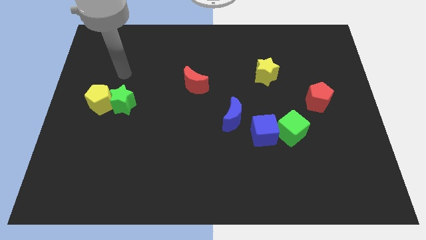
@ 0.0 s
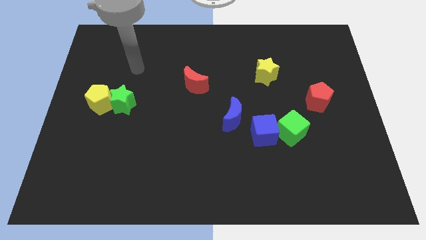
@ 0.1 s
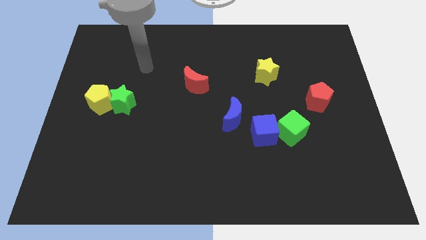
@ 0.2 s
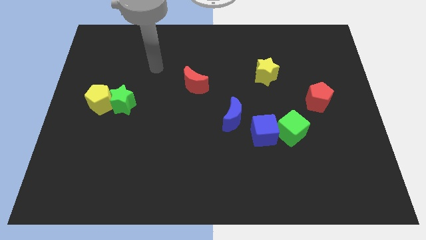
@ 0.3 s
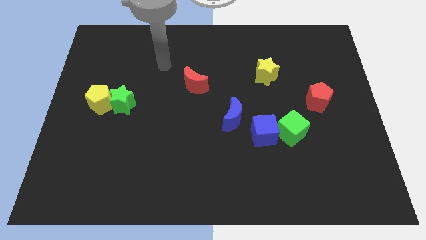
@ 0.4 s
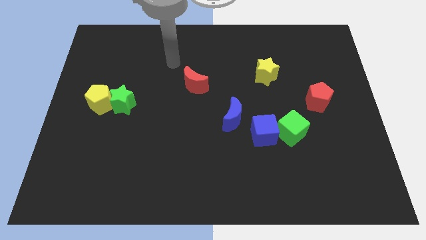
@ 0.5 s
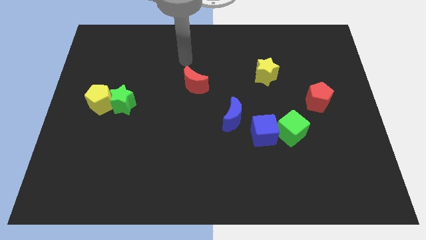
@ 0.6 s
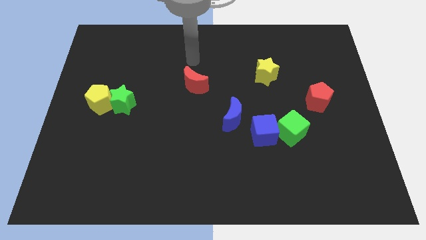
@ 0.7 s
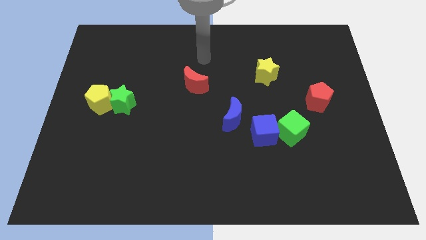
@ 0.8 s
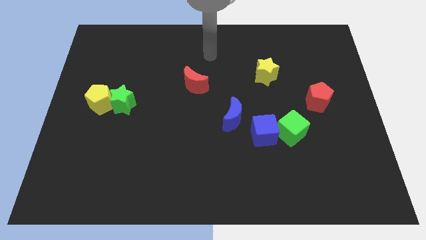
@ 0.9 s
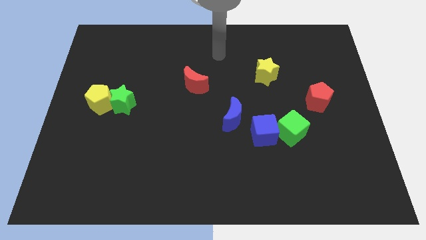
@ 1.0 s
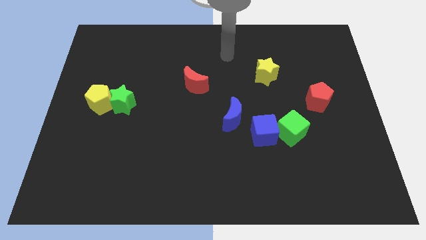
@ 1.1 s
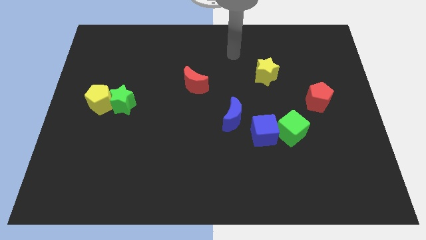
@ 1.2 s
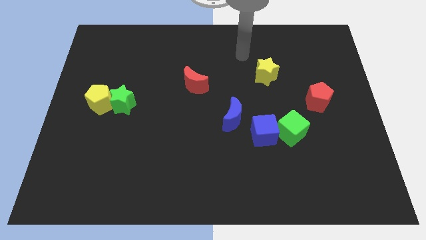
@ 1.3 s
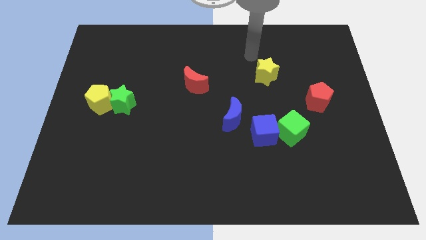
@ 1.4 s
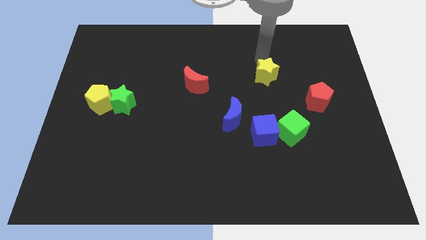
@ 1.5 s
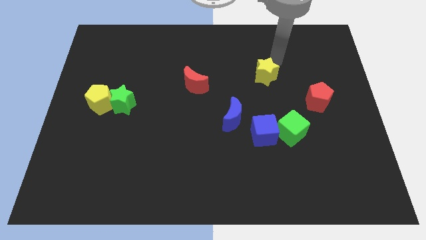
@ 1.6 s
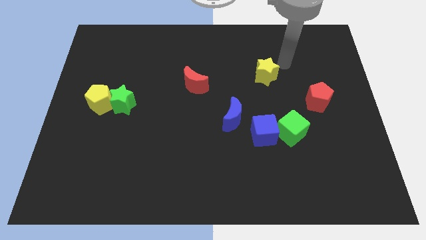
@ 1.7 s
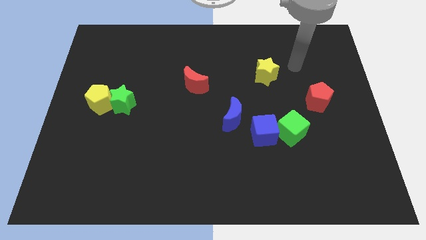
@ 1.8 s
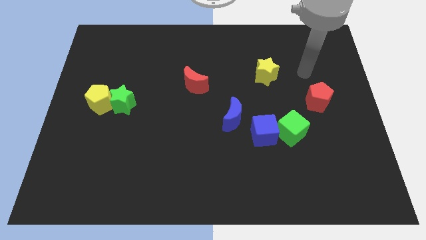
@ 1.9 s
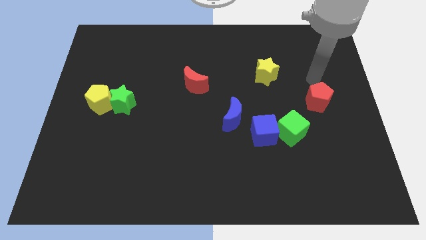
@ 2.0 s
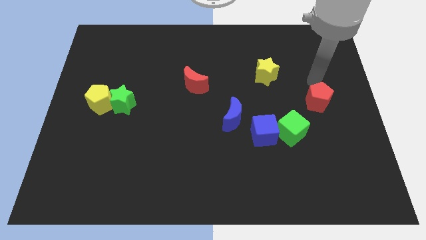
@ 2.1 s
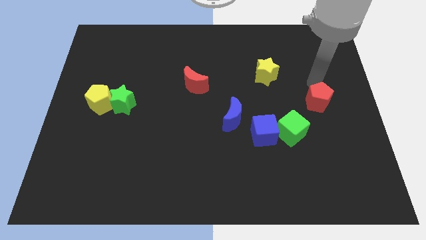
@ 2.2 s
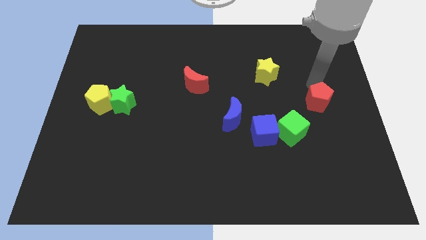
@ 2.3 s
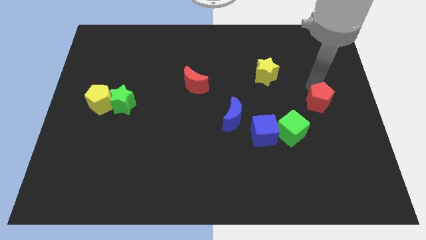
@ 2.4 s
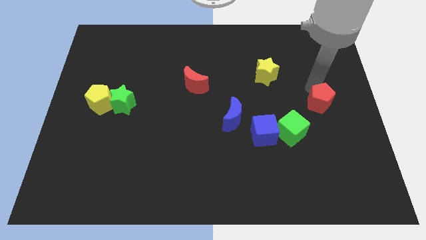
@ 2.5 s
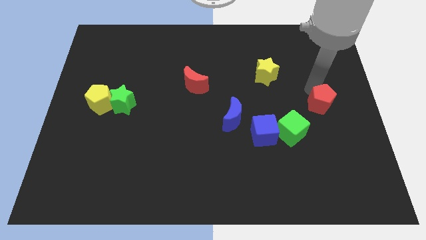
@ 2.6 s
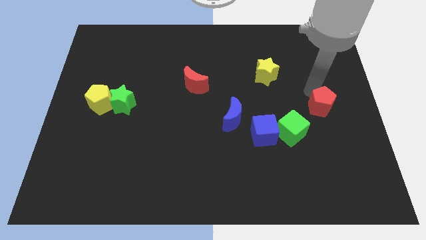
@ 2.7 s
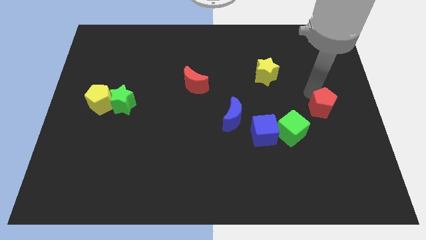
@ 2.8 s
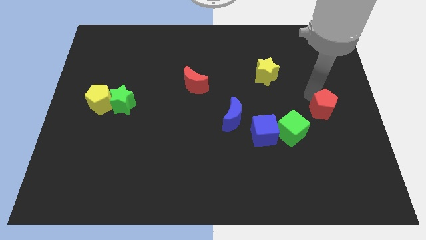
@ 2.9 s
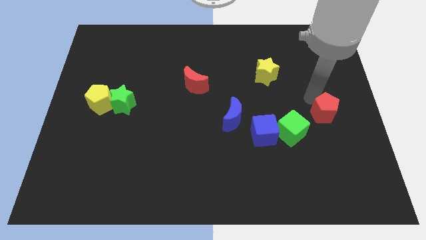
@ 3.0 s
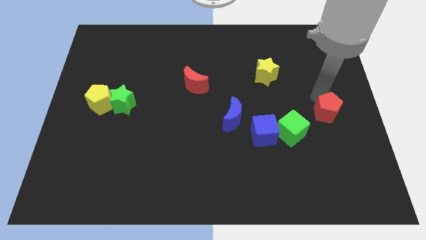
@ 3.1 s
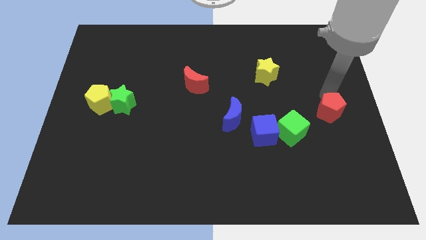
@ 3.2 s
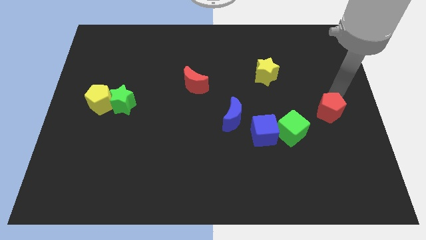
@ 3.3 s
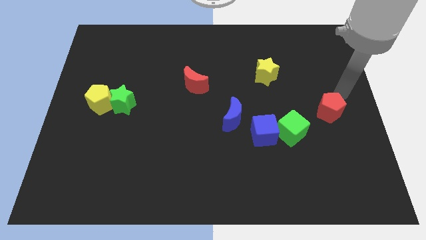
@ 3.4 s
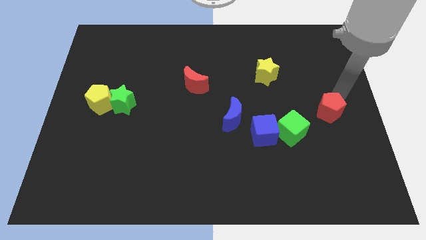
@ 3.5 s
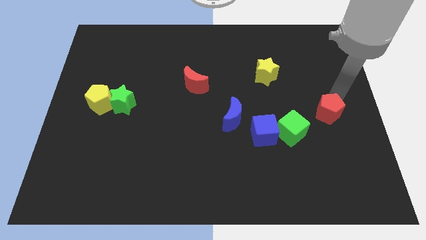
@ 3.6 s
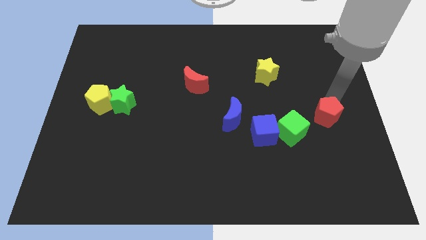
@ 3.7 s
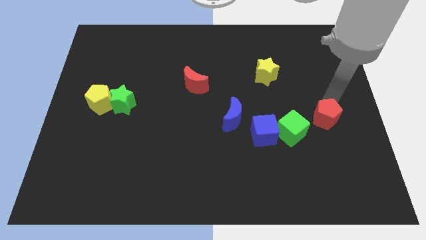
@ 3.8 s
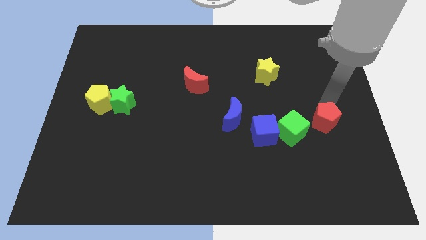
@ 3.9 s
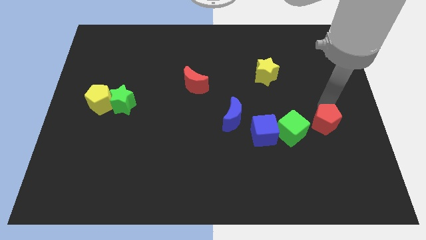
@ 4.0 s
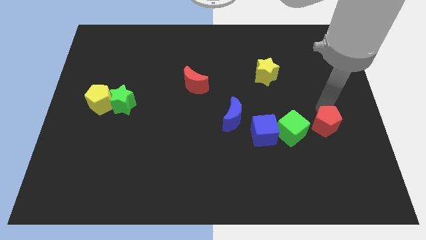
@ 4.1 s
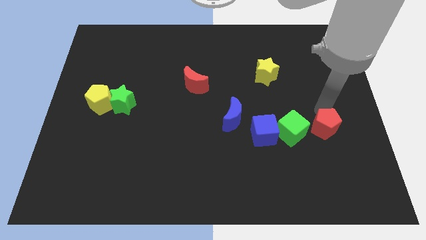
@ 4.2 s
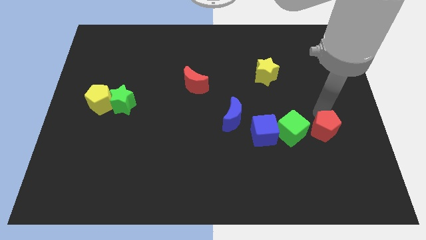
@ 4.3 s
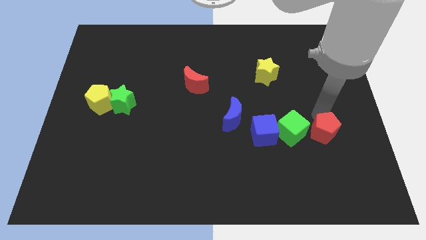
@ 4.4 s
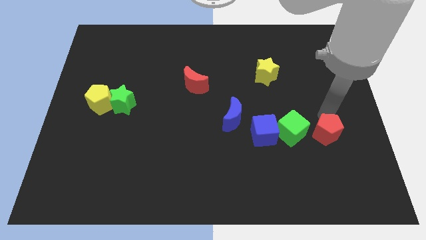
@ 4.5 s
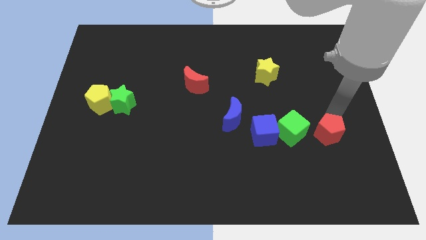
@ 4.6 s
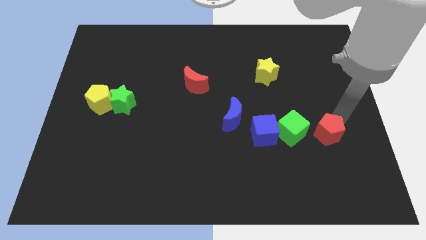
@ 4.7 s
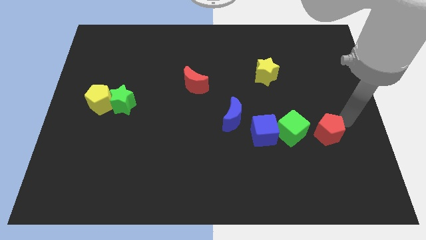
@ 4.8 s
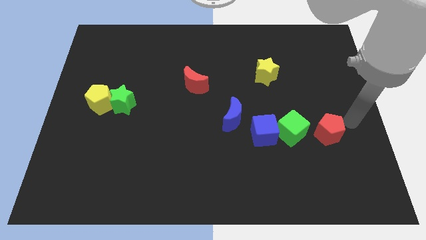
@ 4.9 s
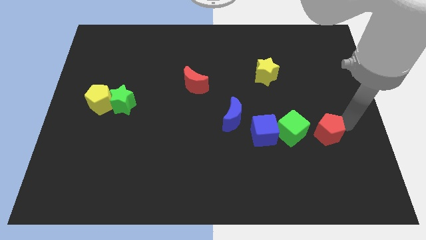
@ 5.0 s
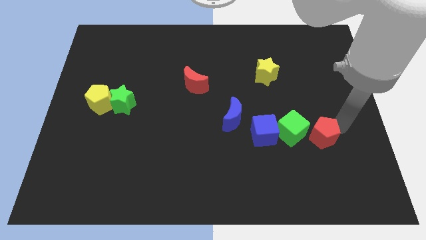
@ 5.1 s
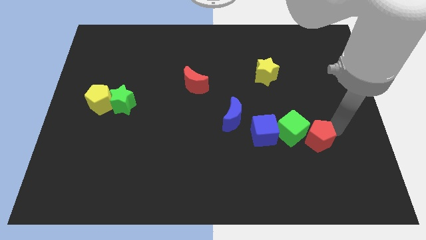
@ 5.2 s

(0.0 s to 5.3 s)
slightly slide the red pentagon down and left diagonally

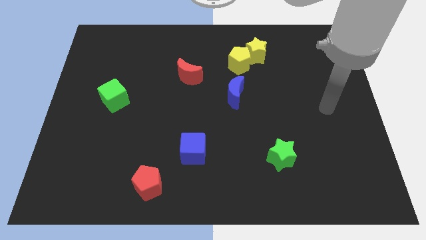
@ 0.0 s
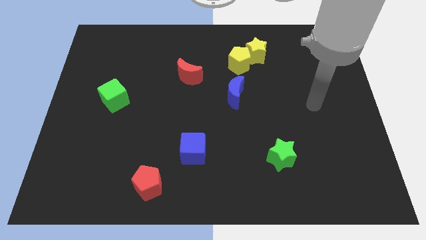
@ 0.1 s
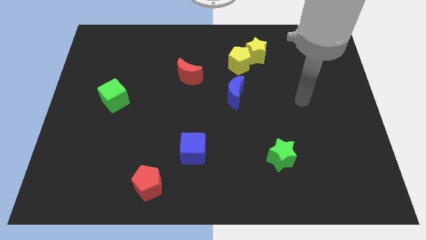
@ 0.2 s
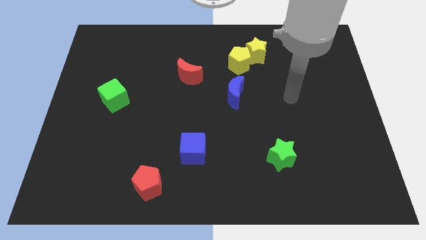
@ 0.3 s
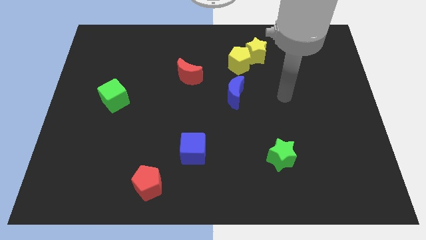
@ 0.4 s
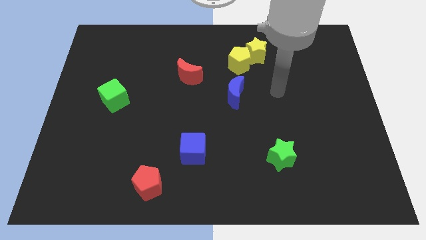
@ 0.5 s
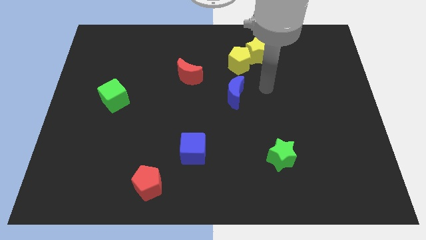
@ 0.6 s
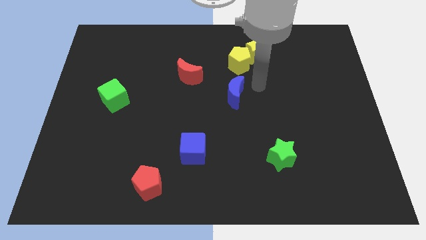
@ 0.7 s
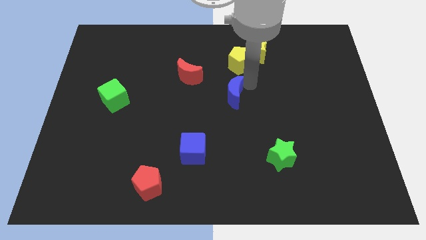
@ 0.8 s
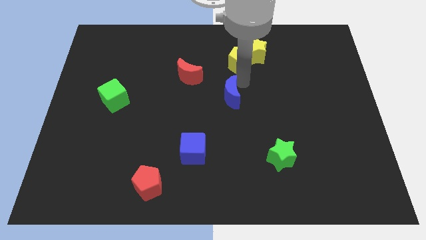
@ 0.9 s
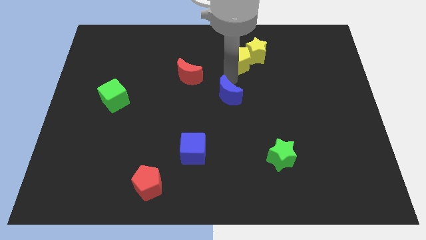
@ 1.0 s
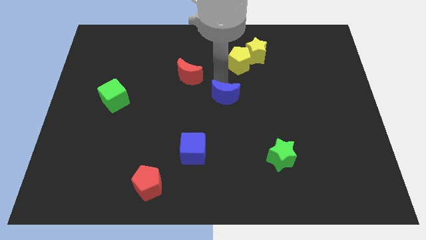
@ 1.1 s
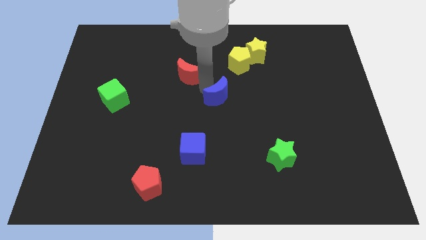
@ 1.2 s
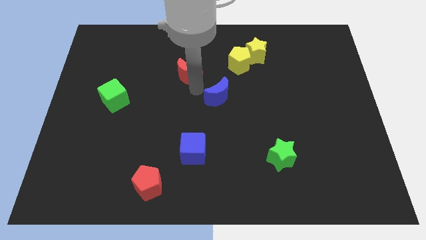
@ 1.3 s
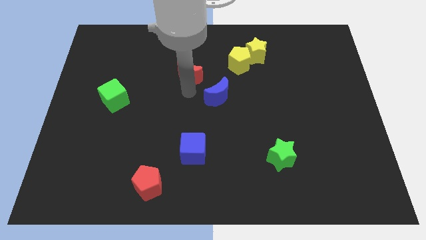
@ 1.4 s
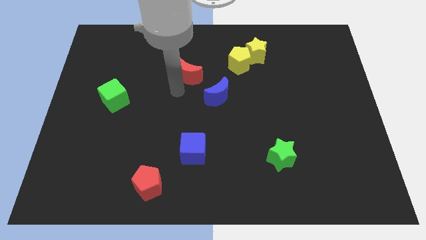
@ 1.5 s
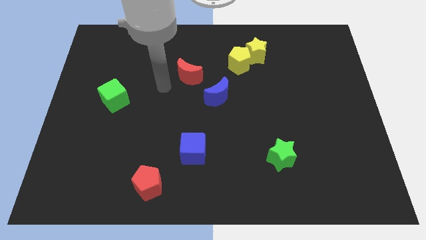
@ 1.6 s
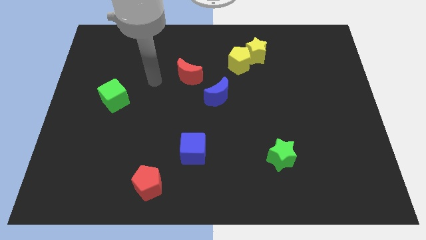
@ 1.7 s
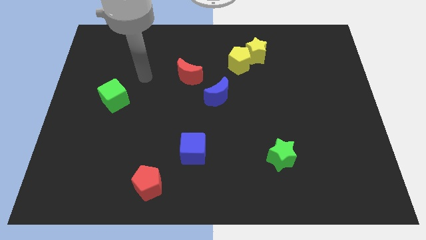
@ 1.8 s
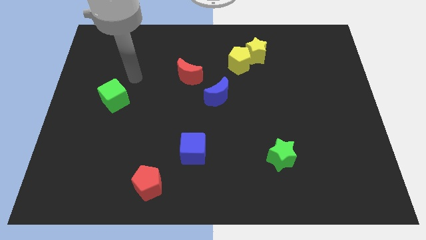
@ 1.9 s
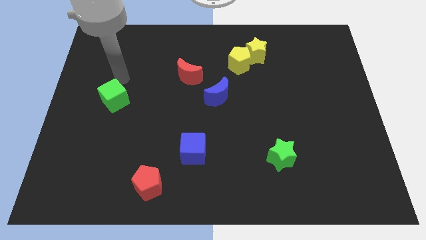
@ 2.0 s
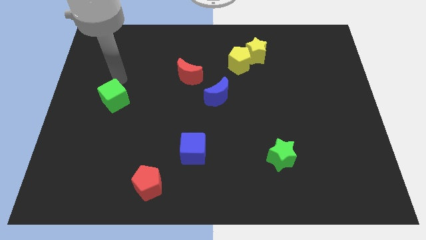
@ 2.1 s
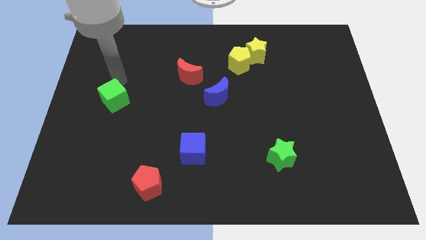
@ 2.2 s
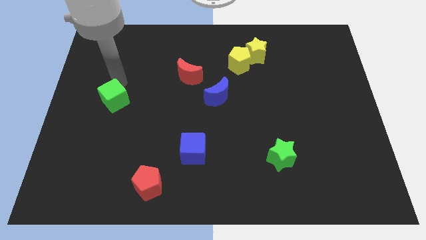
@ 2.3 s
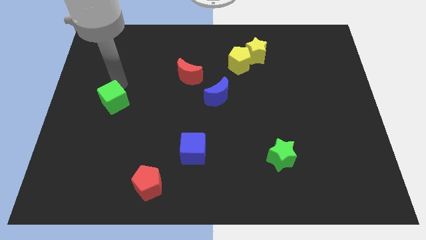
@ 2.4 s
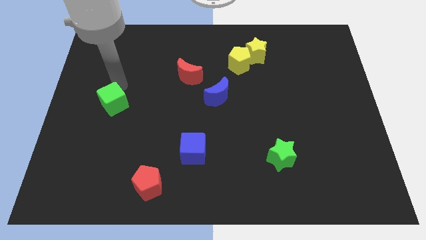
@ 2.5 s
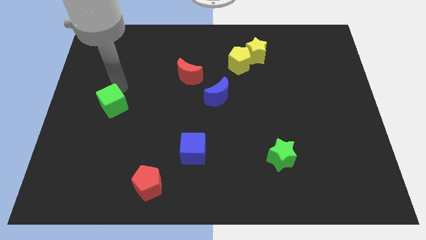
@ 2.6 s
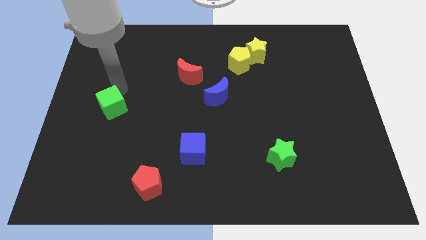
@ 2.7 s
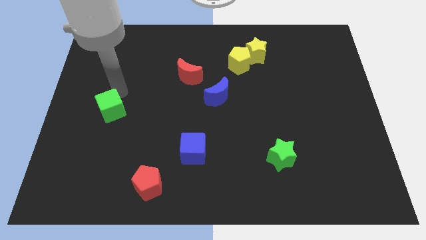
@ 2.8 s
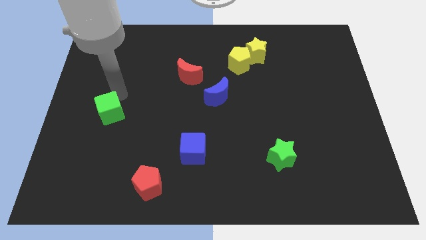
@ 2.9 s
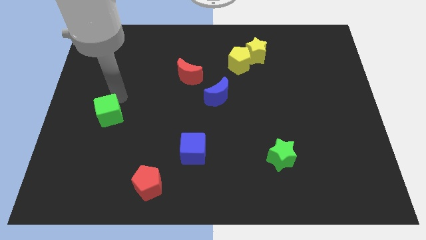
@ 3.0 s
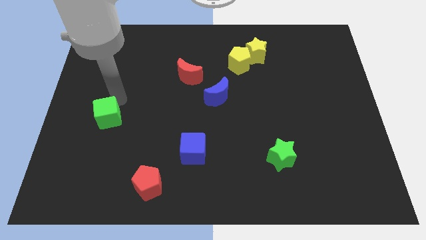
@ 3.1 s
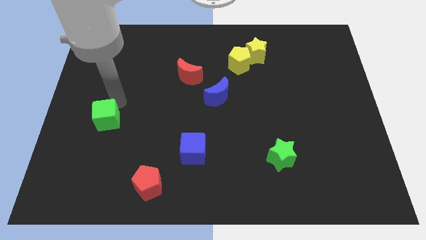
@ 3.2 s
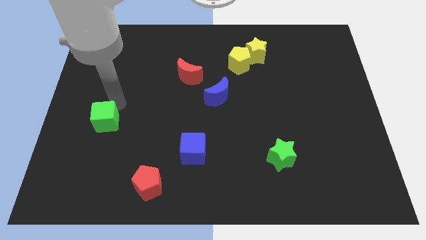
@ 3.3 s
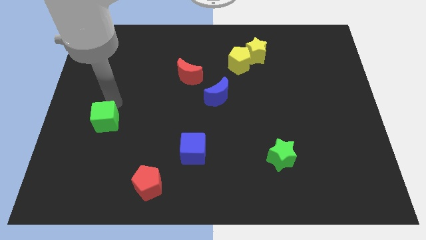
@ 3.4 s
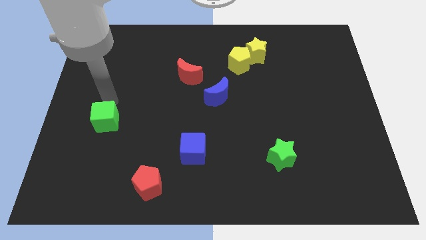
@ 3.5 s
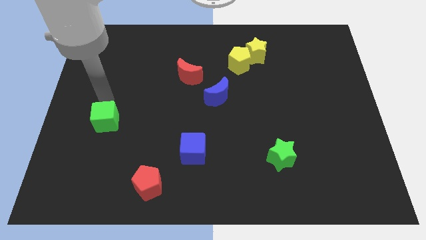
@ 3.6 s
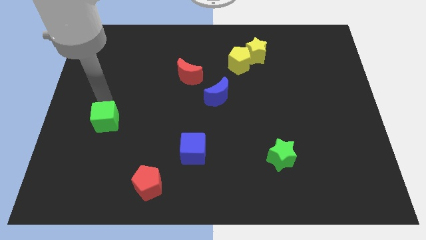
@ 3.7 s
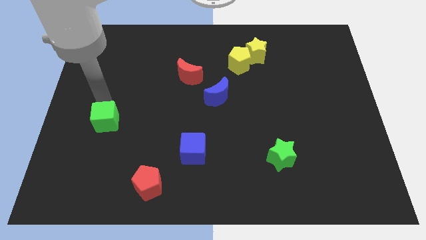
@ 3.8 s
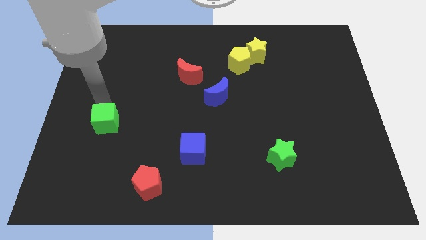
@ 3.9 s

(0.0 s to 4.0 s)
slightly push the green cube down
